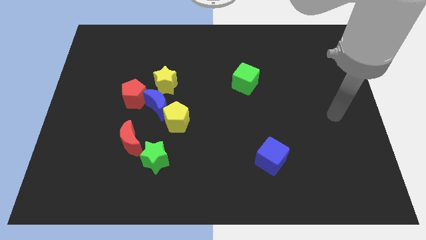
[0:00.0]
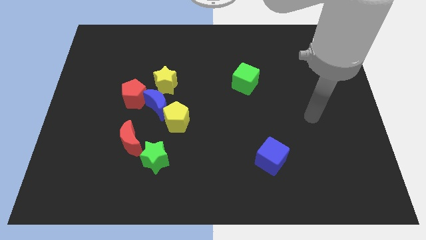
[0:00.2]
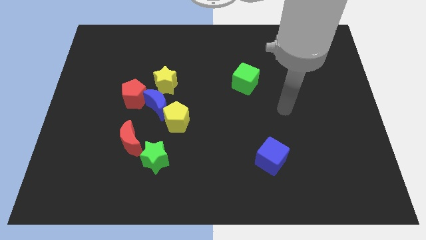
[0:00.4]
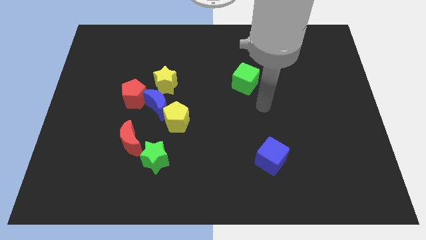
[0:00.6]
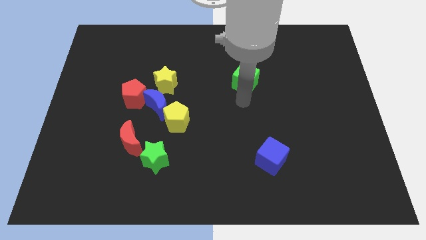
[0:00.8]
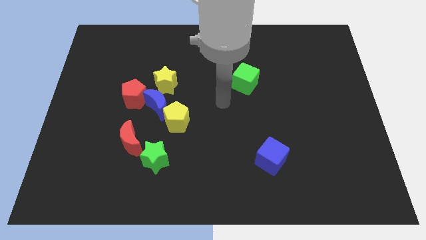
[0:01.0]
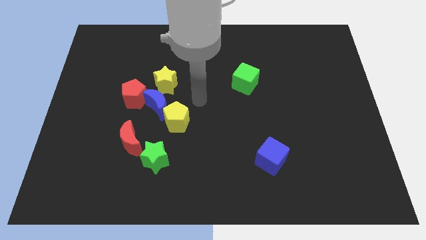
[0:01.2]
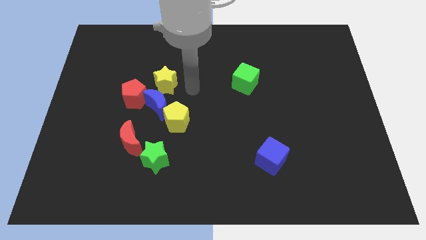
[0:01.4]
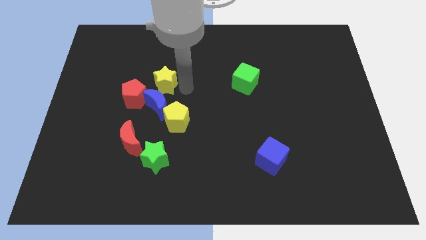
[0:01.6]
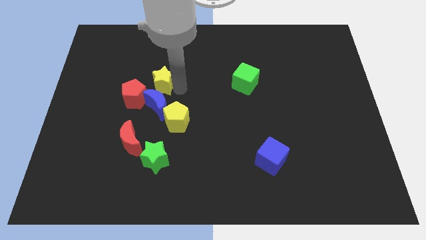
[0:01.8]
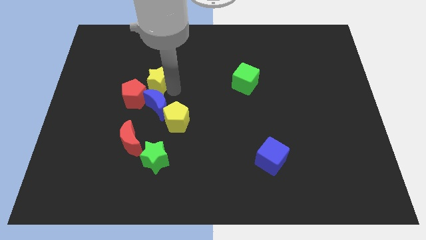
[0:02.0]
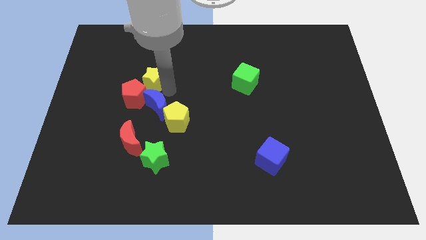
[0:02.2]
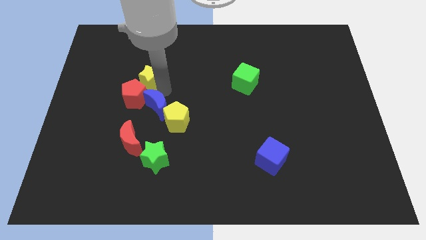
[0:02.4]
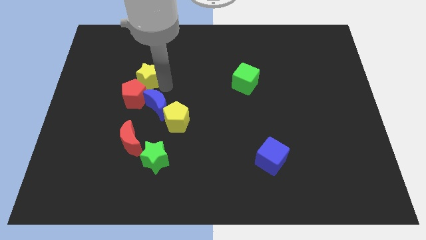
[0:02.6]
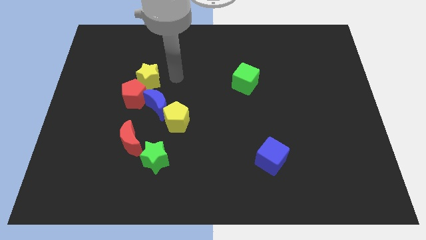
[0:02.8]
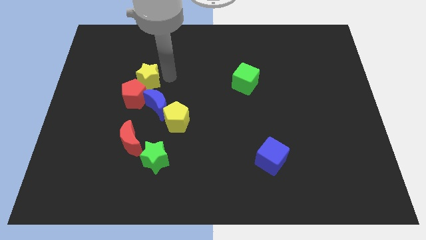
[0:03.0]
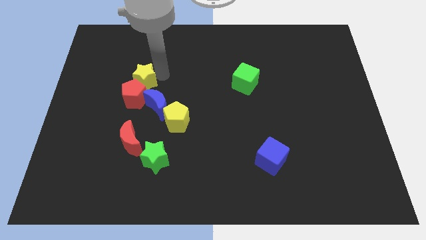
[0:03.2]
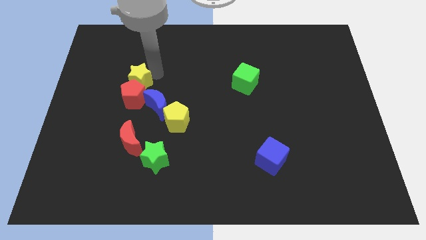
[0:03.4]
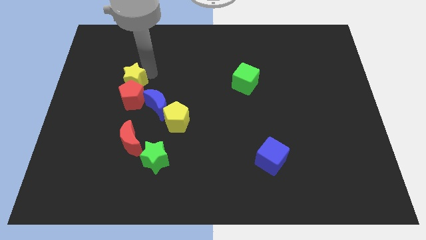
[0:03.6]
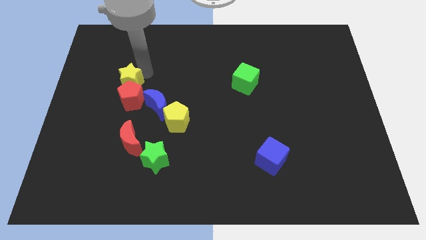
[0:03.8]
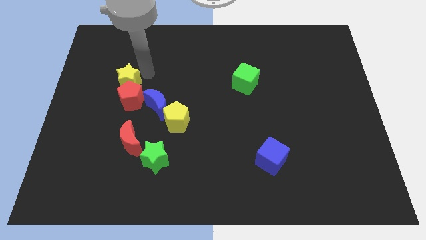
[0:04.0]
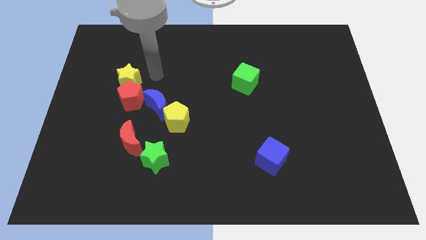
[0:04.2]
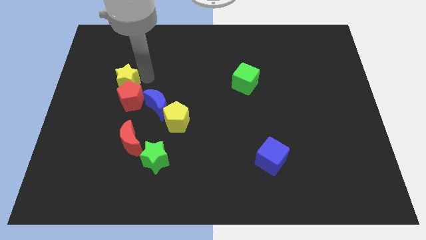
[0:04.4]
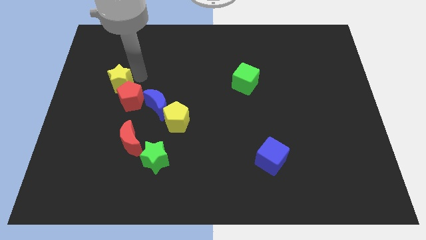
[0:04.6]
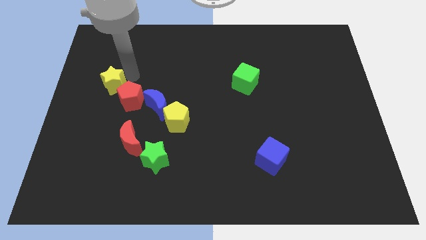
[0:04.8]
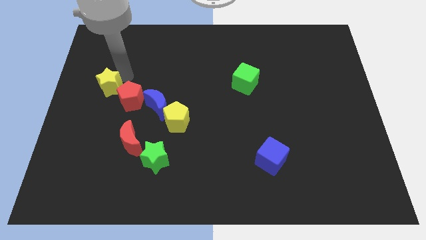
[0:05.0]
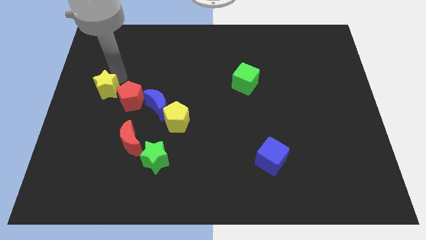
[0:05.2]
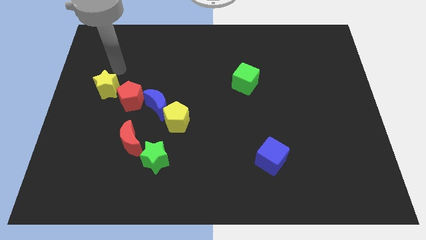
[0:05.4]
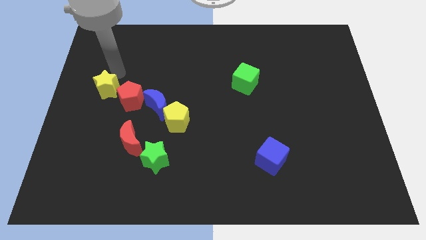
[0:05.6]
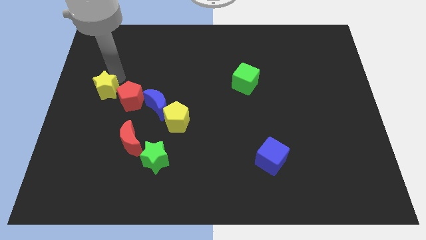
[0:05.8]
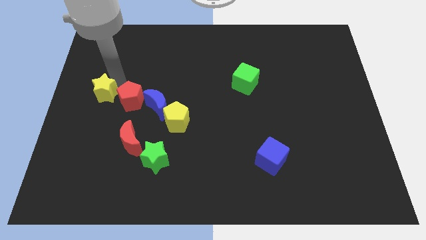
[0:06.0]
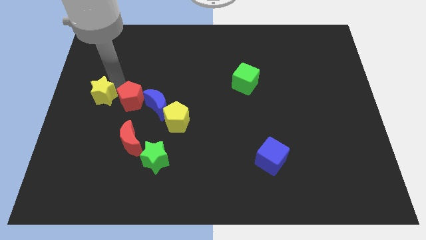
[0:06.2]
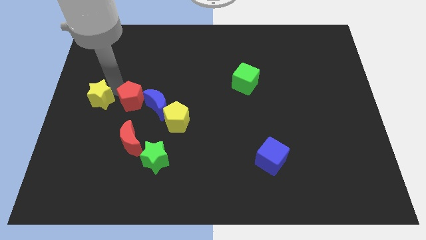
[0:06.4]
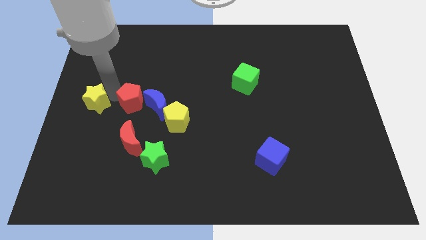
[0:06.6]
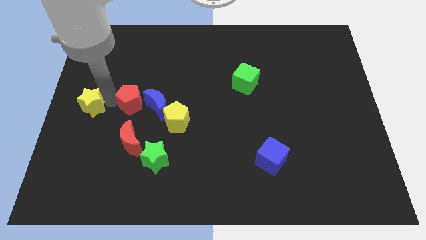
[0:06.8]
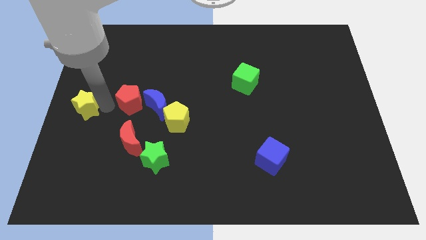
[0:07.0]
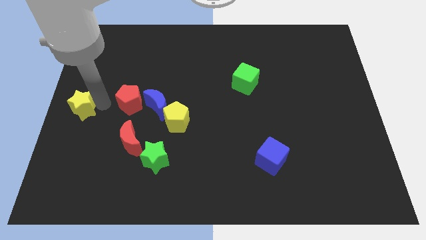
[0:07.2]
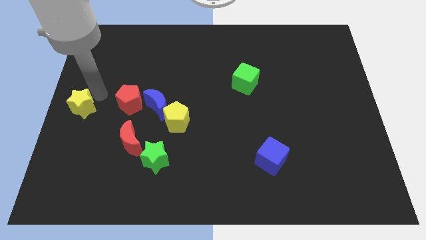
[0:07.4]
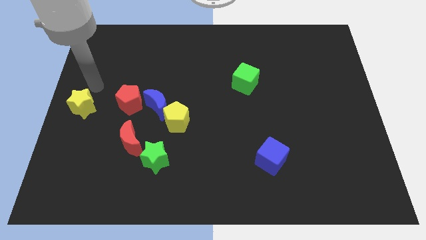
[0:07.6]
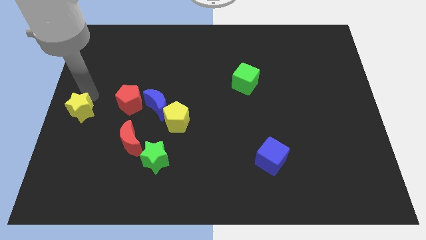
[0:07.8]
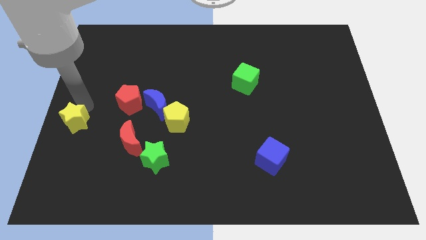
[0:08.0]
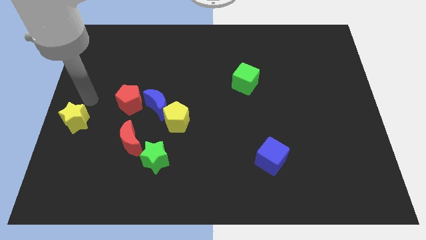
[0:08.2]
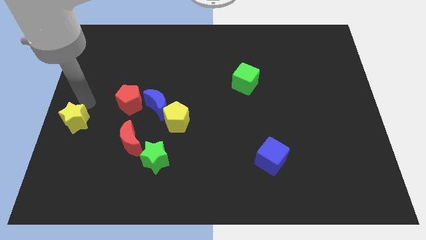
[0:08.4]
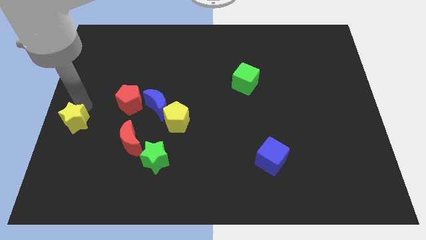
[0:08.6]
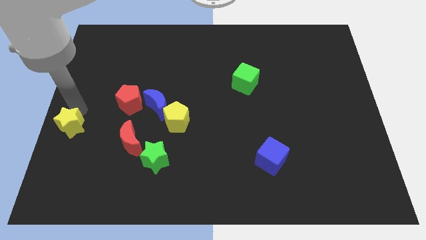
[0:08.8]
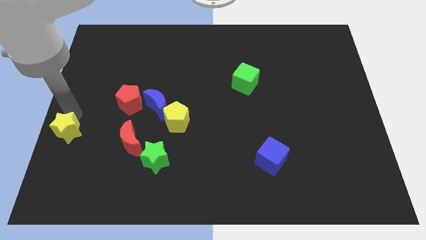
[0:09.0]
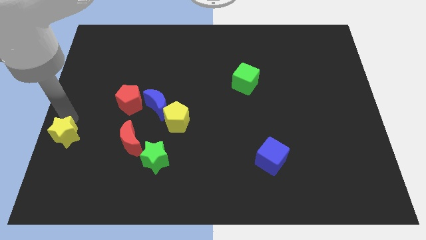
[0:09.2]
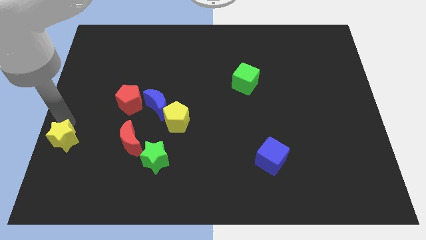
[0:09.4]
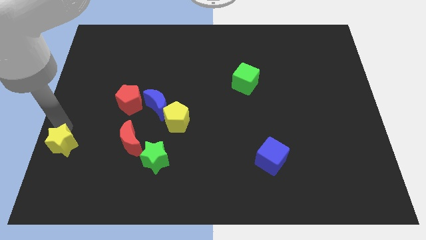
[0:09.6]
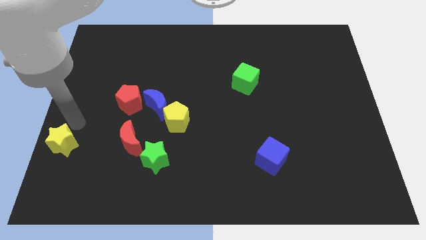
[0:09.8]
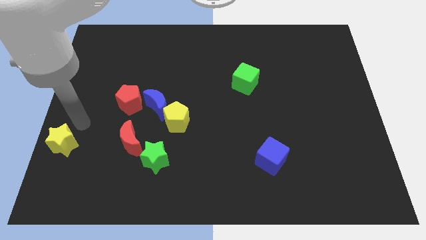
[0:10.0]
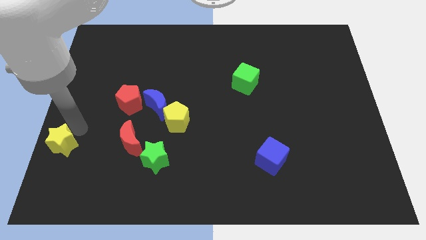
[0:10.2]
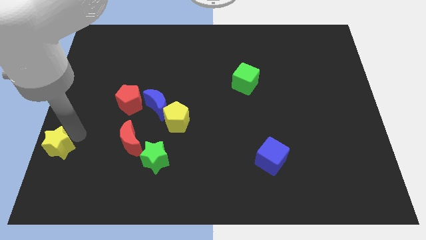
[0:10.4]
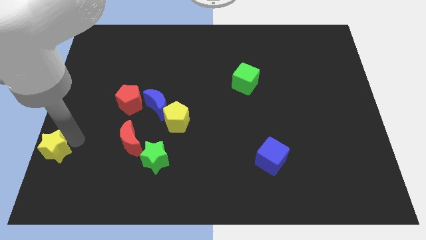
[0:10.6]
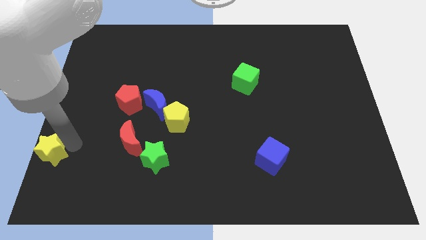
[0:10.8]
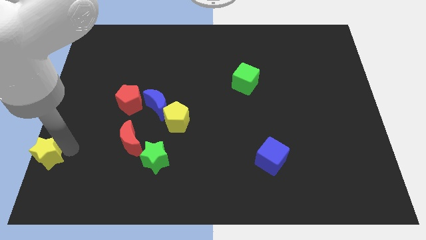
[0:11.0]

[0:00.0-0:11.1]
push the yellow star to the bottom left of the board
